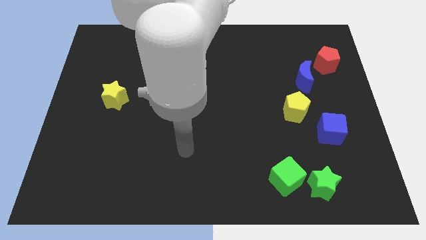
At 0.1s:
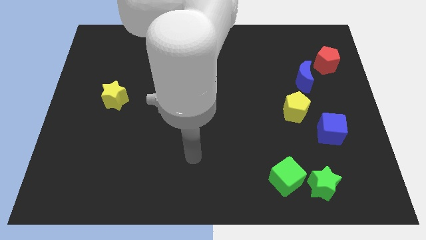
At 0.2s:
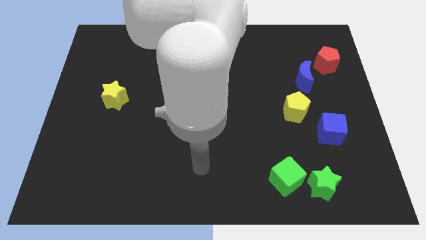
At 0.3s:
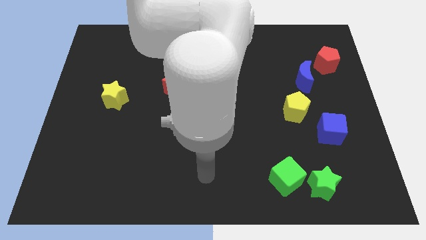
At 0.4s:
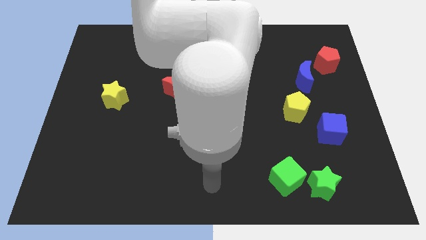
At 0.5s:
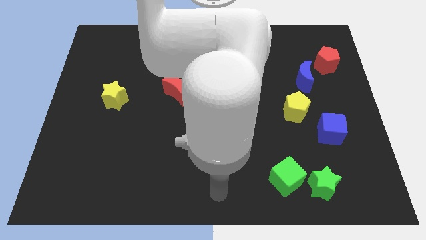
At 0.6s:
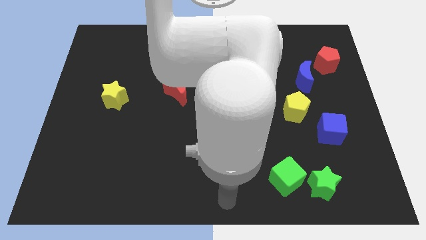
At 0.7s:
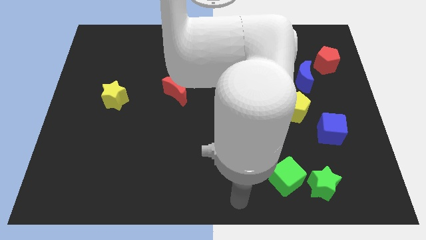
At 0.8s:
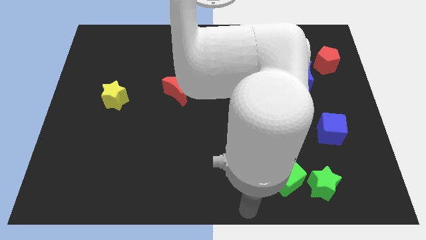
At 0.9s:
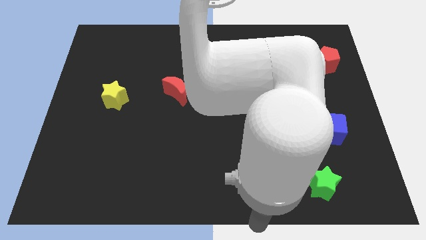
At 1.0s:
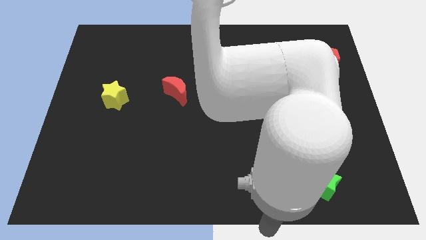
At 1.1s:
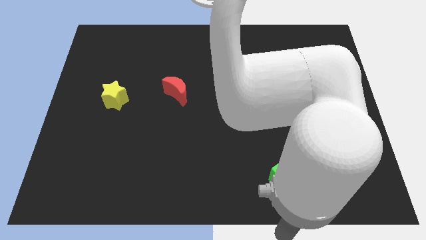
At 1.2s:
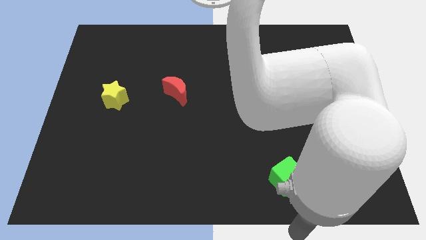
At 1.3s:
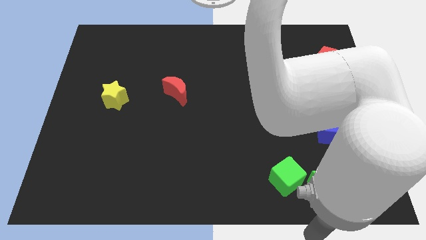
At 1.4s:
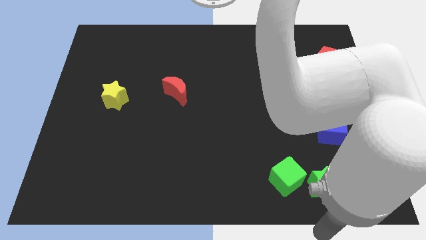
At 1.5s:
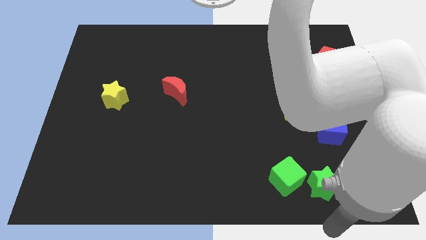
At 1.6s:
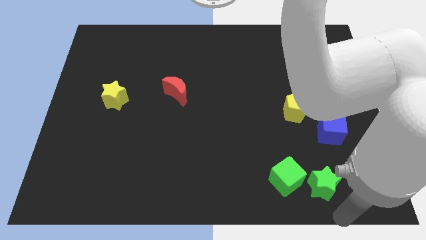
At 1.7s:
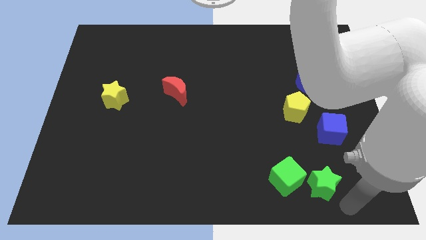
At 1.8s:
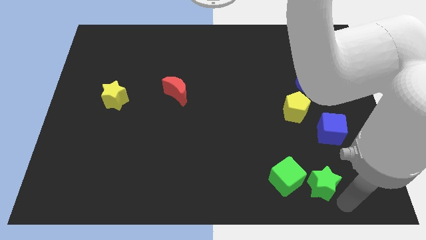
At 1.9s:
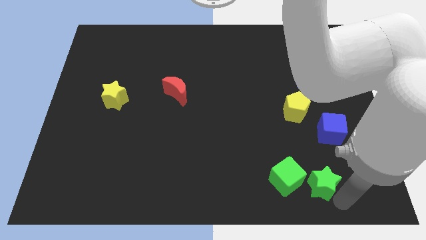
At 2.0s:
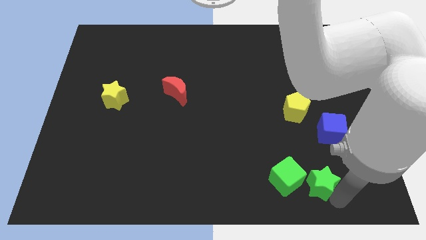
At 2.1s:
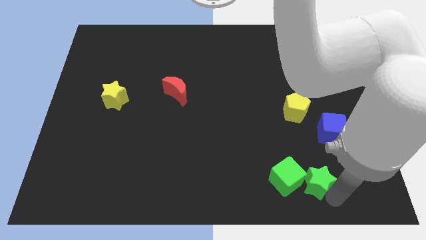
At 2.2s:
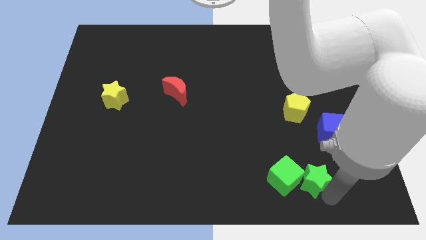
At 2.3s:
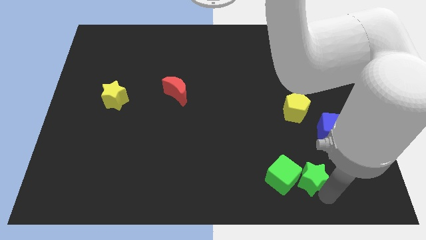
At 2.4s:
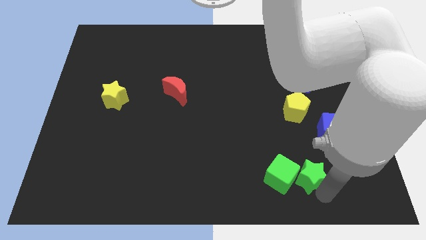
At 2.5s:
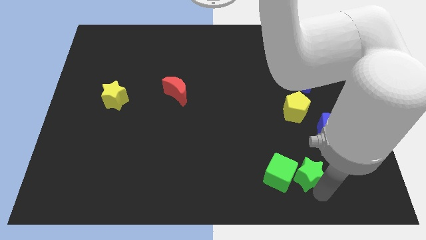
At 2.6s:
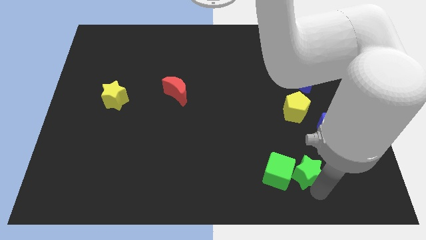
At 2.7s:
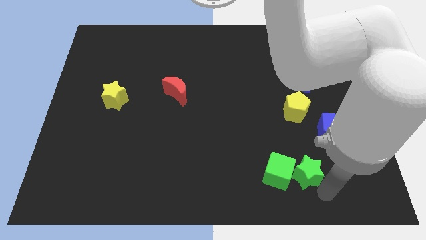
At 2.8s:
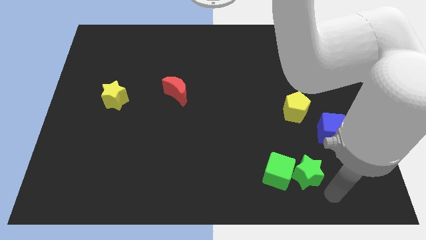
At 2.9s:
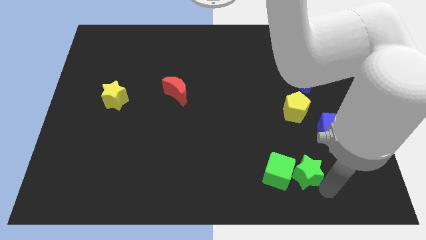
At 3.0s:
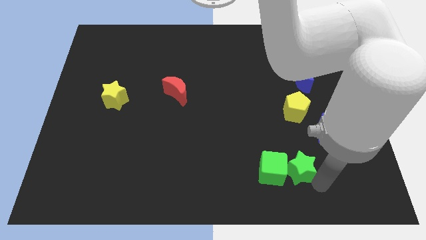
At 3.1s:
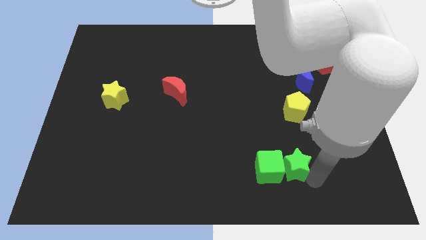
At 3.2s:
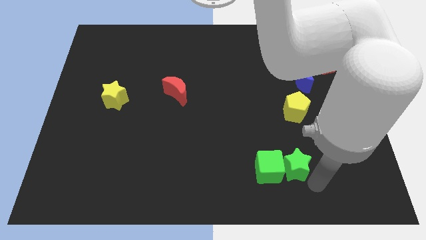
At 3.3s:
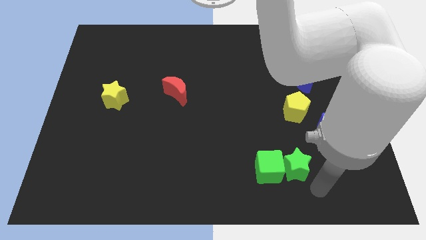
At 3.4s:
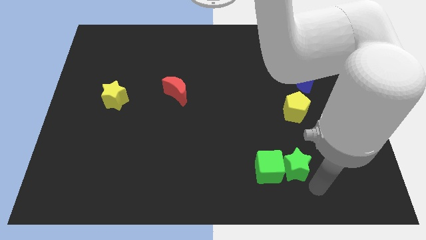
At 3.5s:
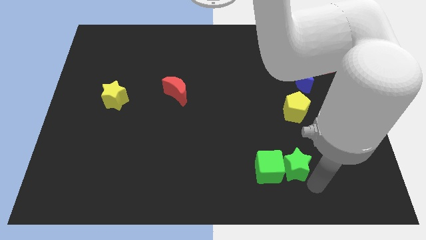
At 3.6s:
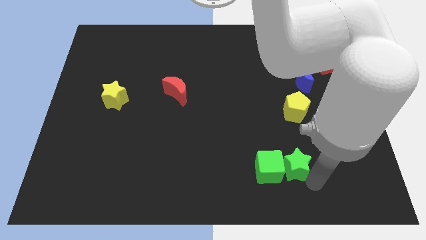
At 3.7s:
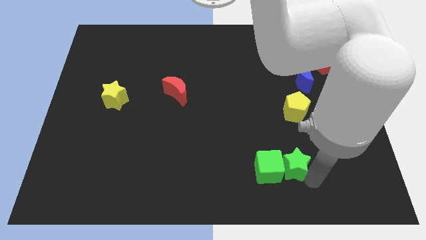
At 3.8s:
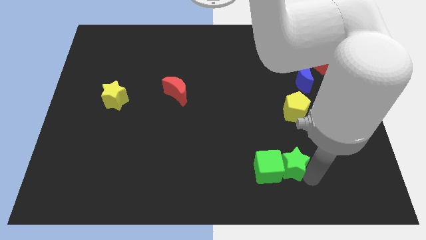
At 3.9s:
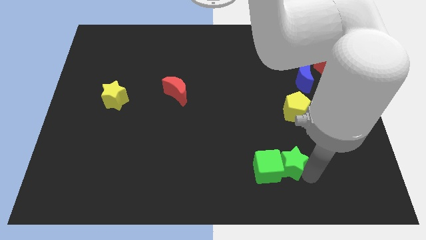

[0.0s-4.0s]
move the green star slightly up and then to the left

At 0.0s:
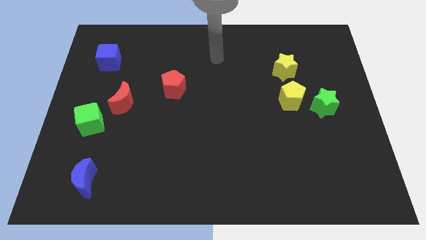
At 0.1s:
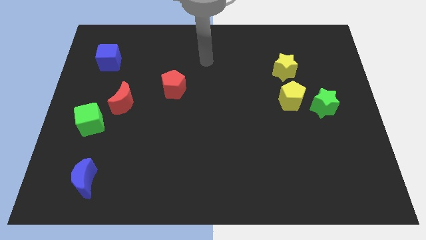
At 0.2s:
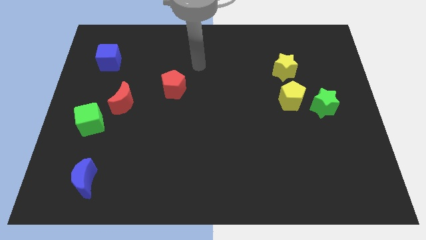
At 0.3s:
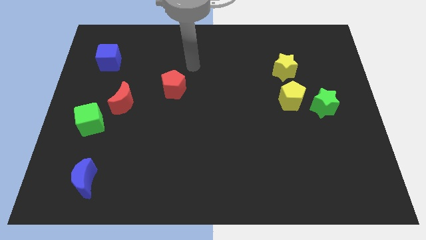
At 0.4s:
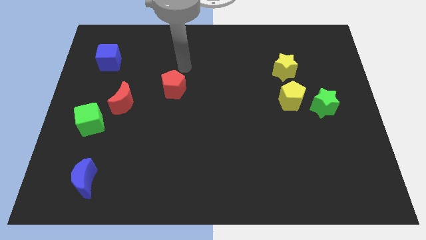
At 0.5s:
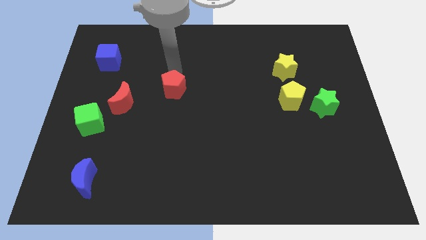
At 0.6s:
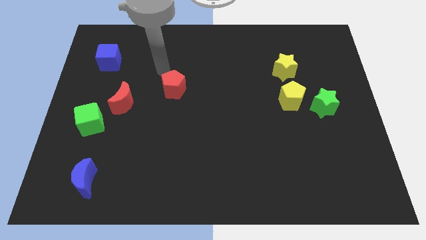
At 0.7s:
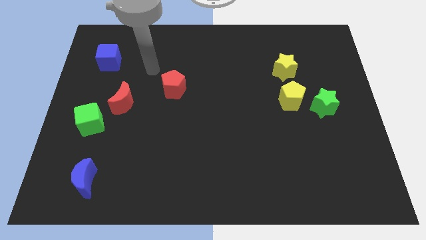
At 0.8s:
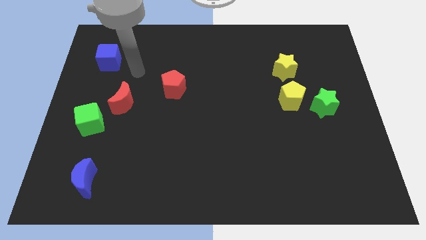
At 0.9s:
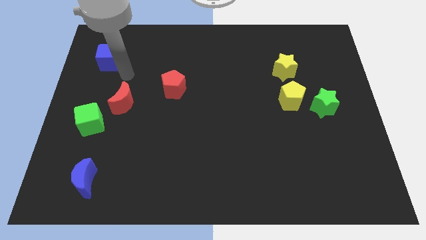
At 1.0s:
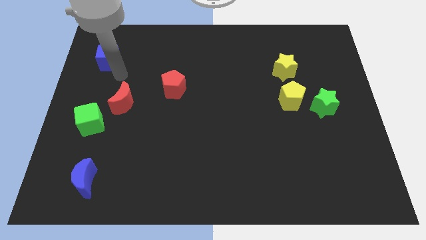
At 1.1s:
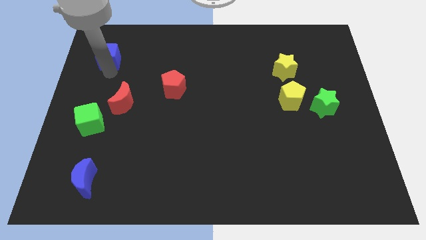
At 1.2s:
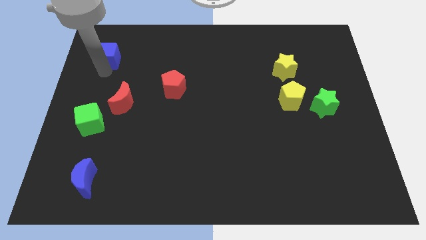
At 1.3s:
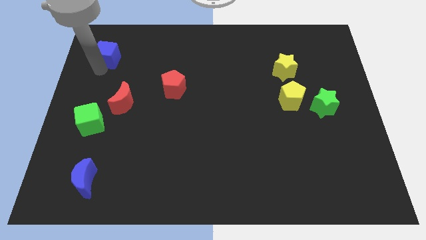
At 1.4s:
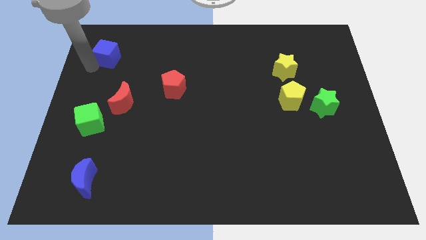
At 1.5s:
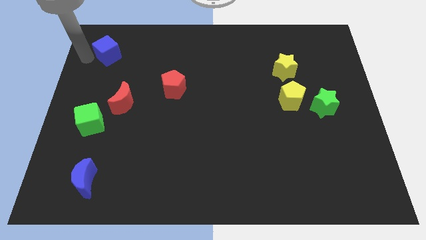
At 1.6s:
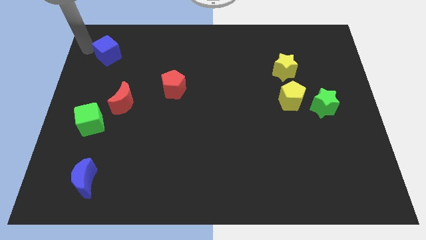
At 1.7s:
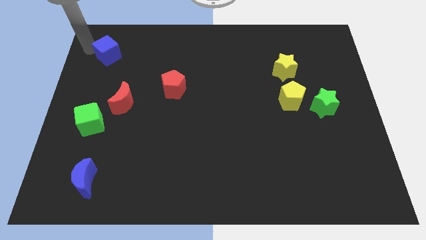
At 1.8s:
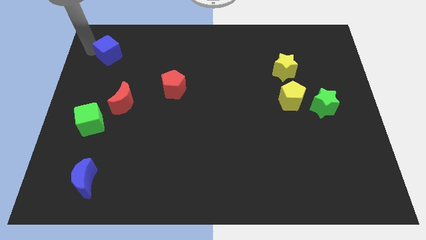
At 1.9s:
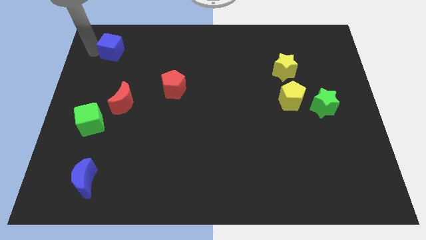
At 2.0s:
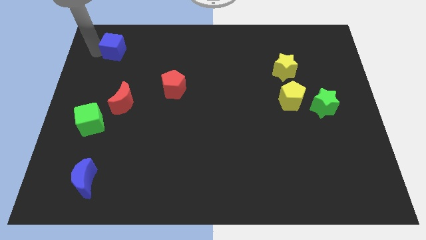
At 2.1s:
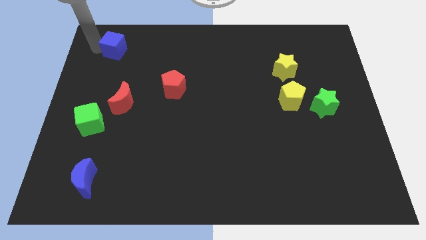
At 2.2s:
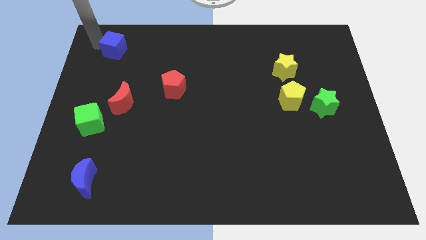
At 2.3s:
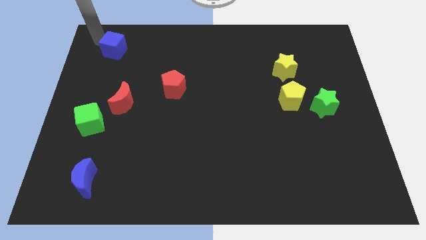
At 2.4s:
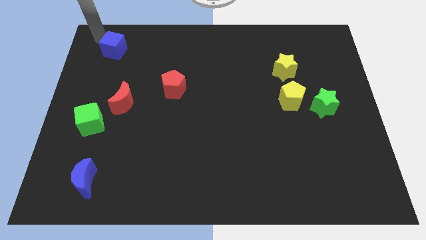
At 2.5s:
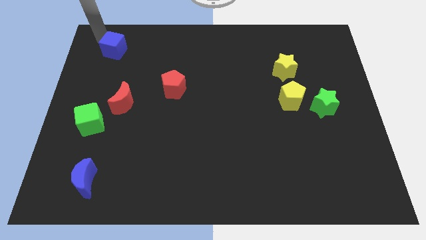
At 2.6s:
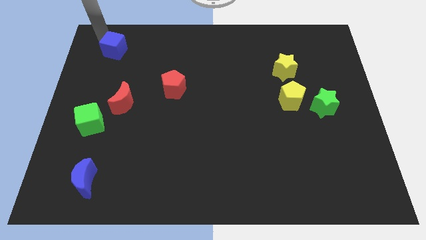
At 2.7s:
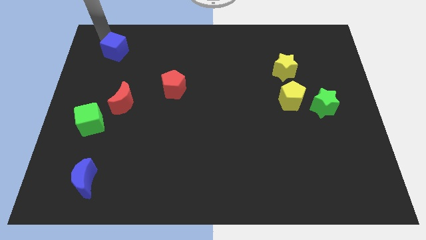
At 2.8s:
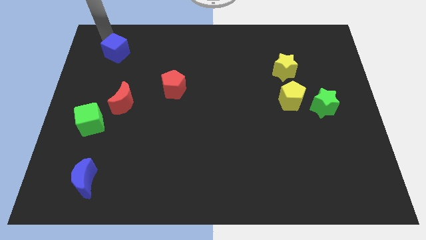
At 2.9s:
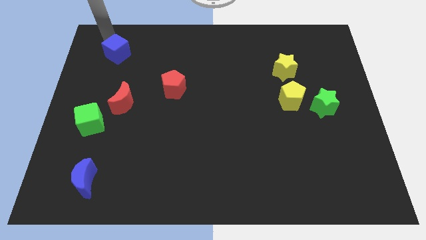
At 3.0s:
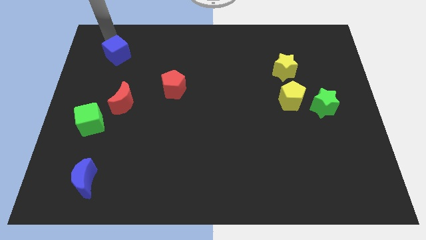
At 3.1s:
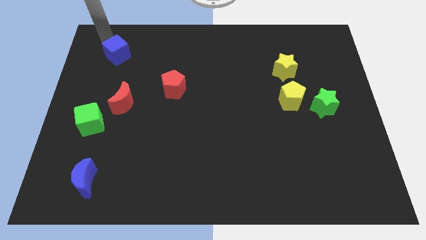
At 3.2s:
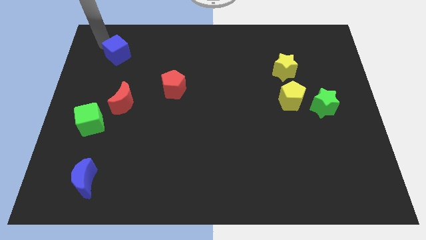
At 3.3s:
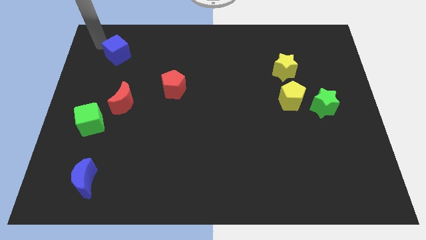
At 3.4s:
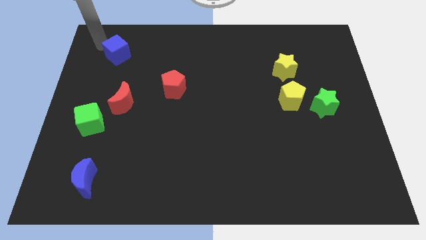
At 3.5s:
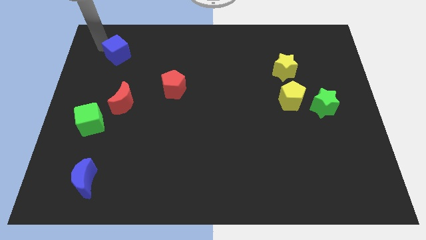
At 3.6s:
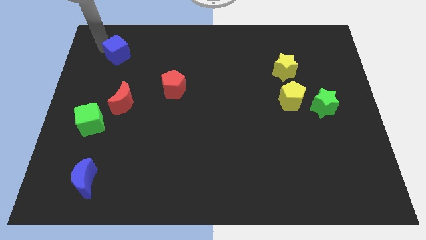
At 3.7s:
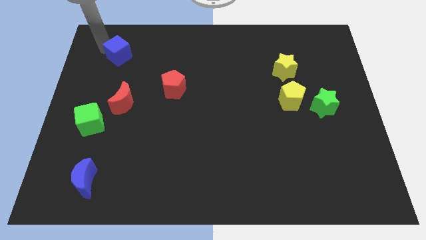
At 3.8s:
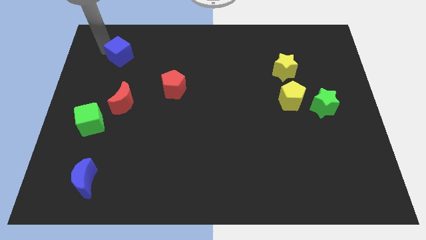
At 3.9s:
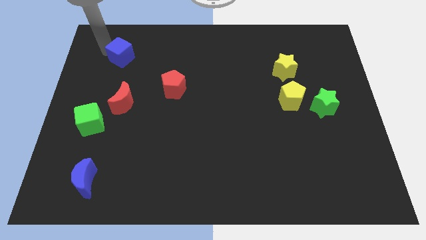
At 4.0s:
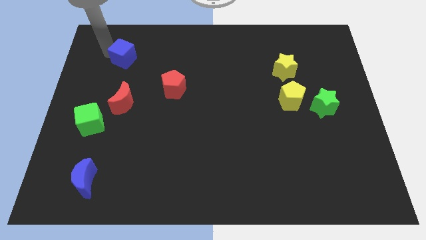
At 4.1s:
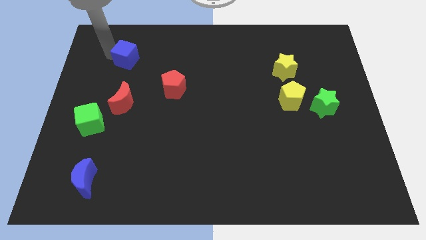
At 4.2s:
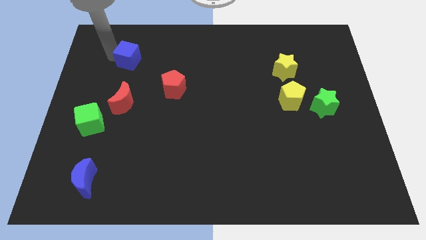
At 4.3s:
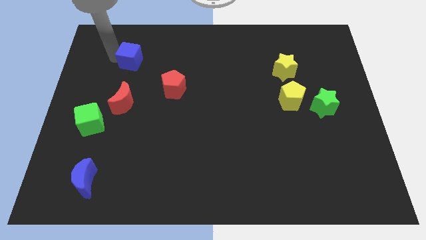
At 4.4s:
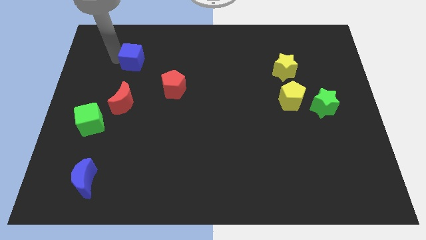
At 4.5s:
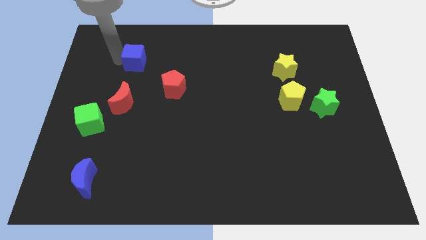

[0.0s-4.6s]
move the blue cube slightly right
